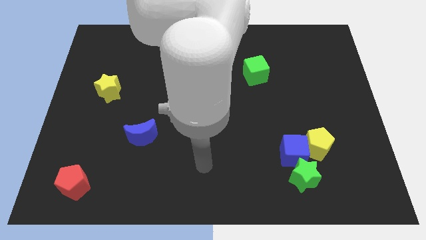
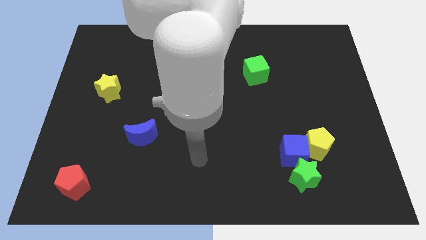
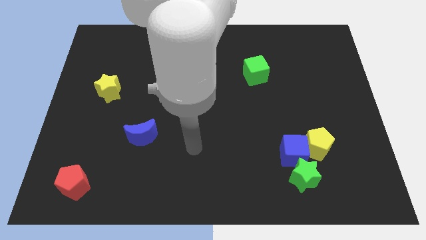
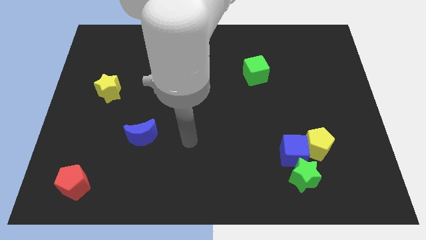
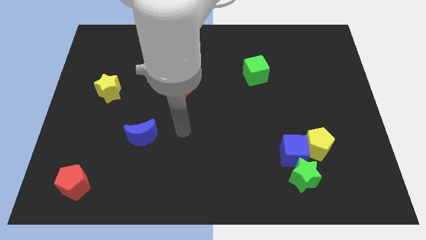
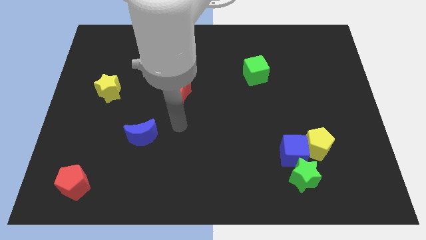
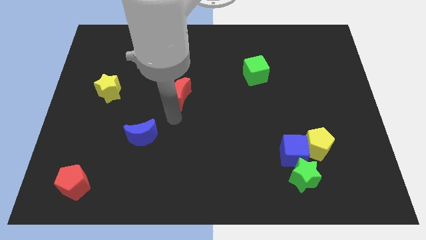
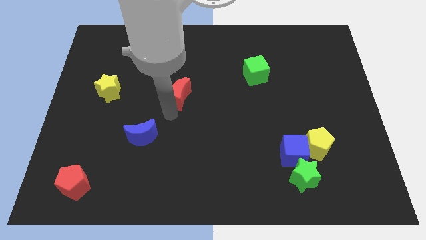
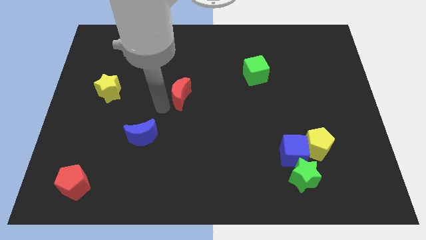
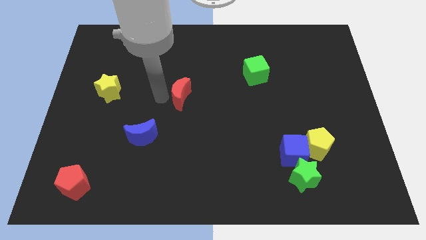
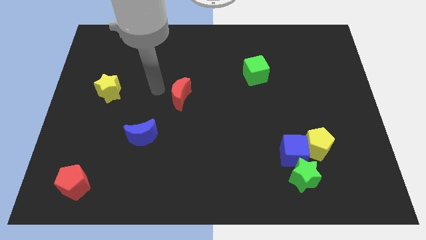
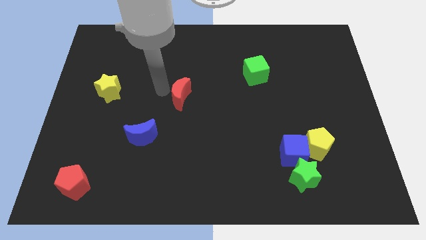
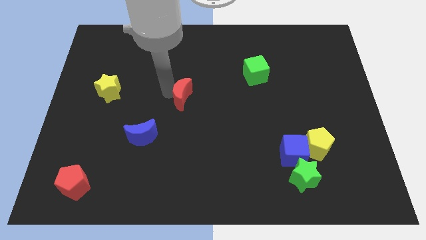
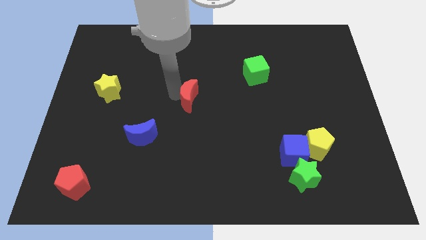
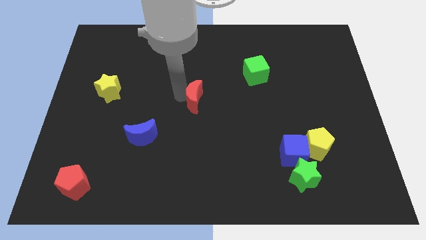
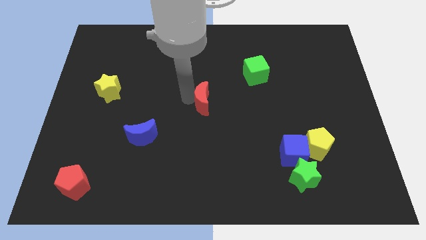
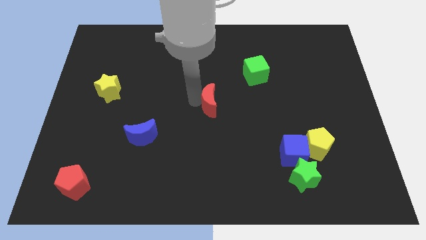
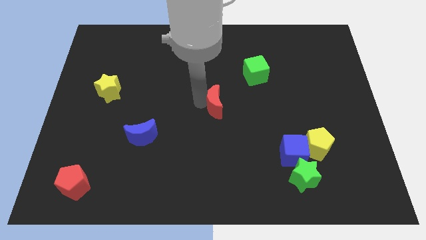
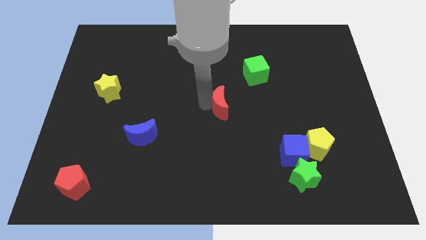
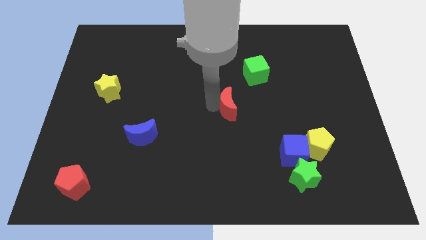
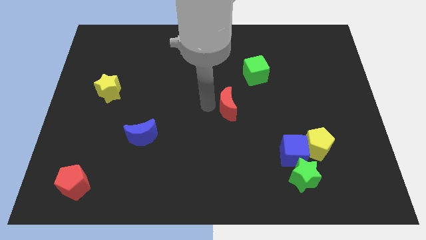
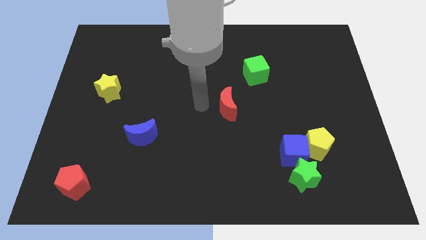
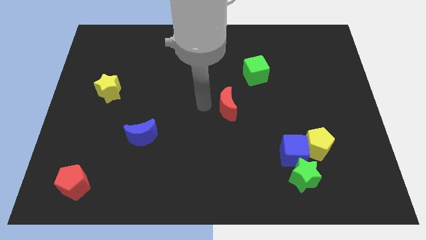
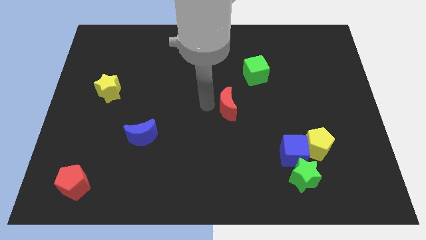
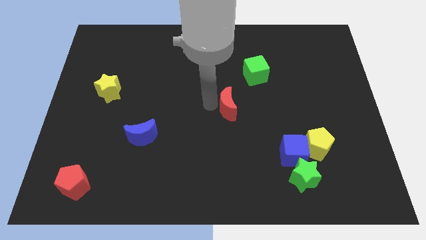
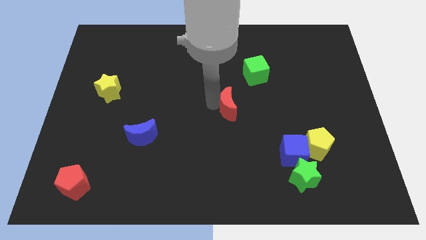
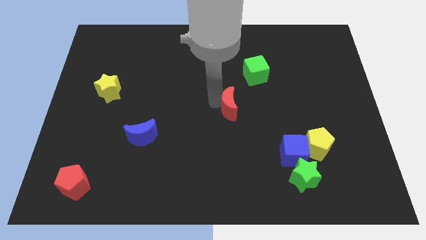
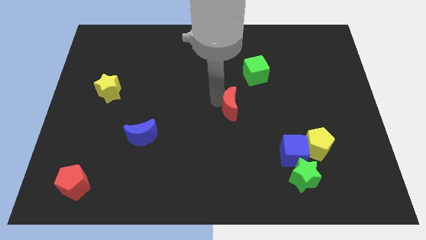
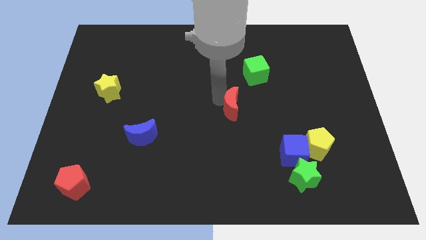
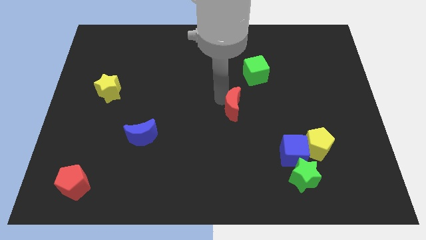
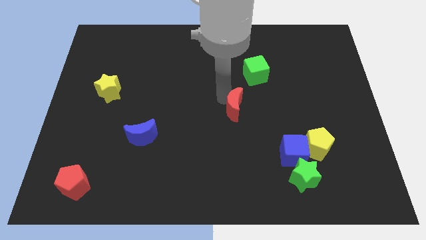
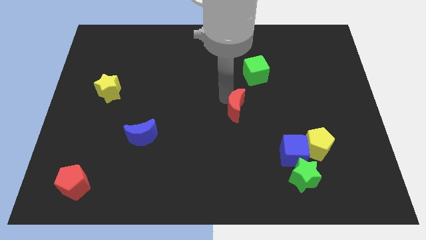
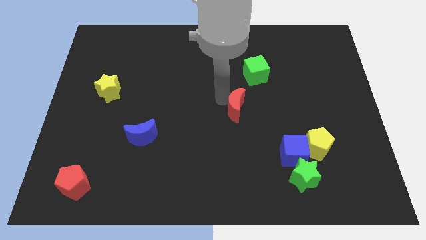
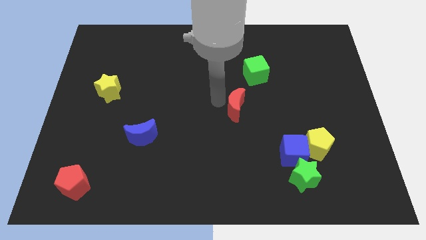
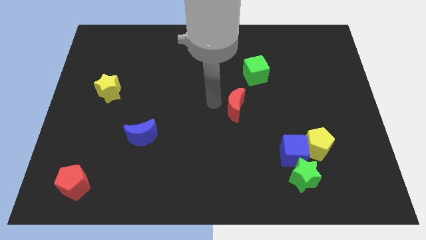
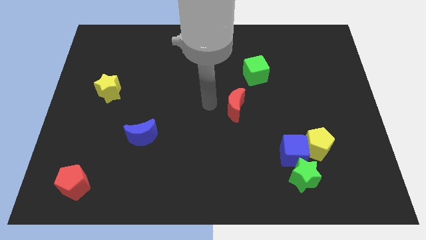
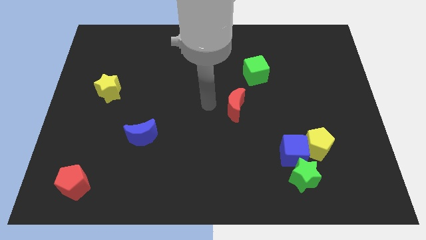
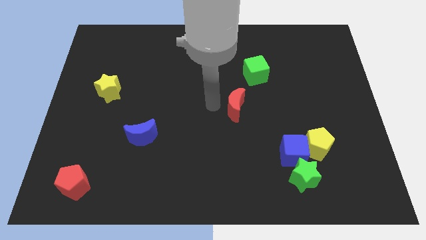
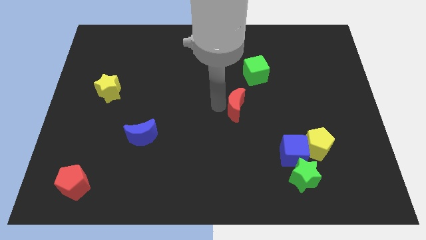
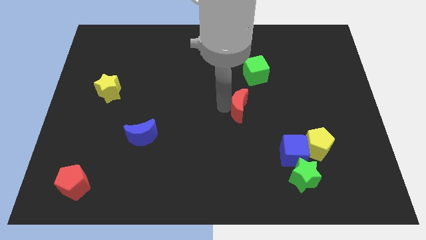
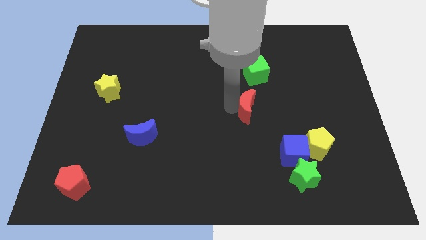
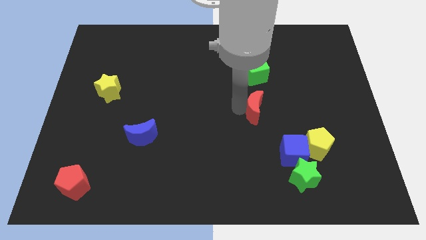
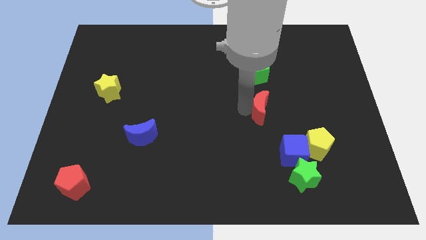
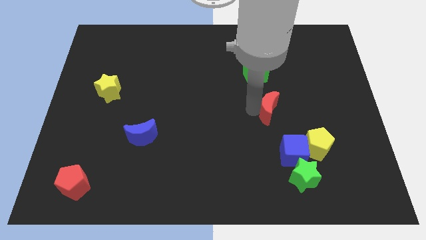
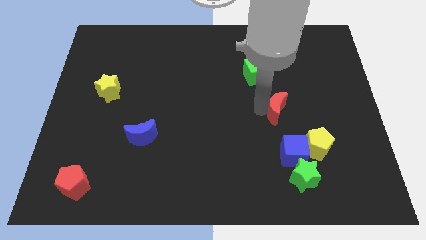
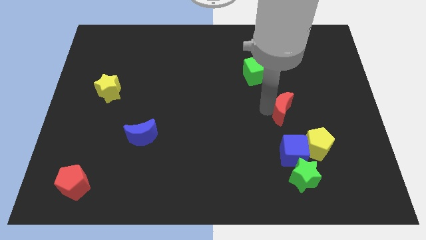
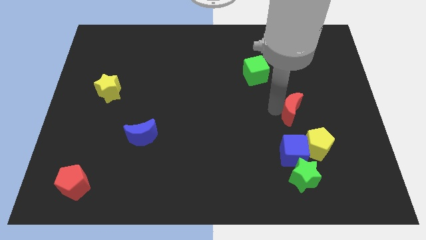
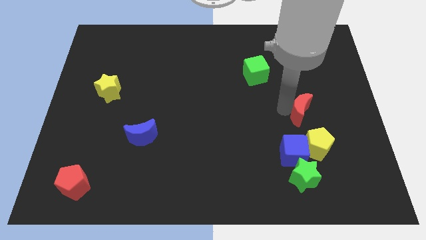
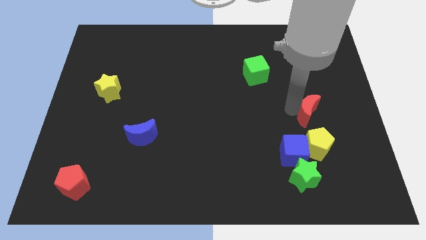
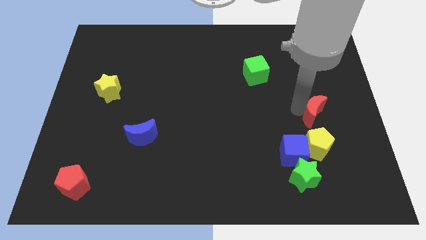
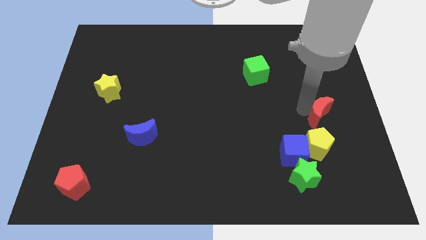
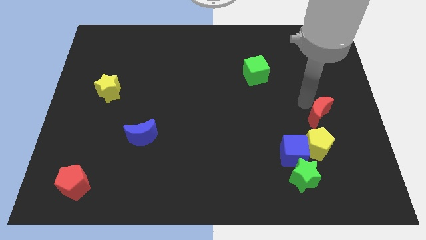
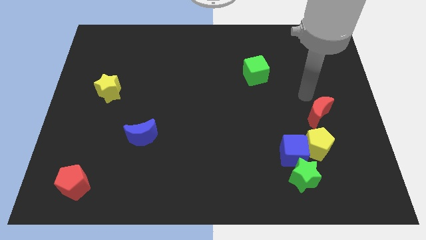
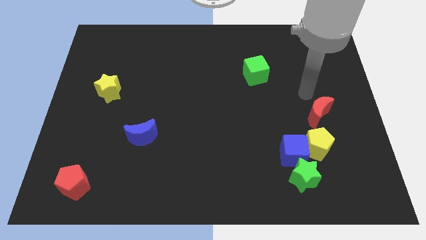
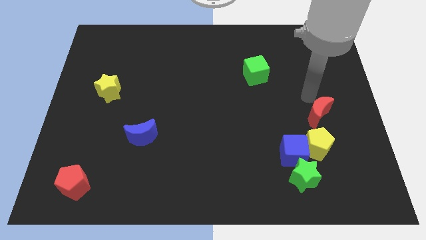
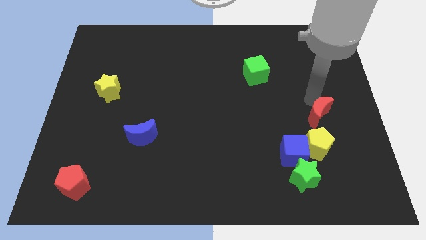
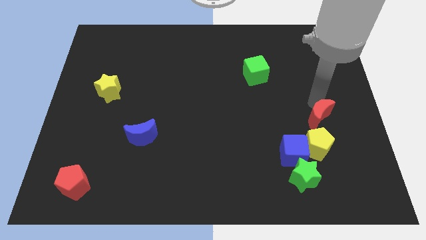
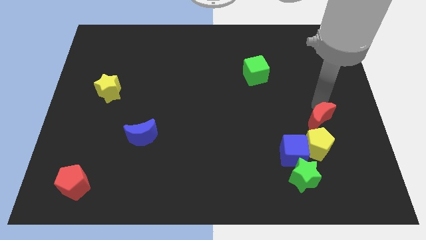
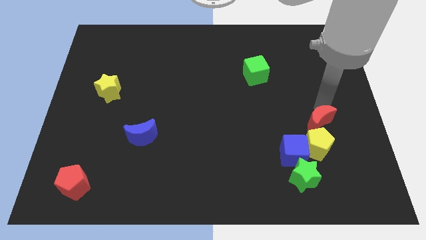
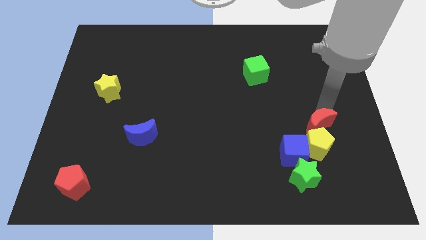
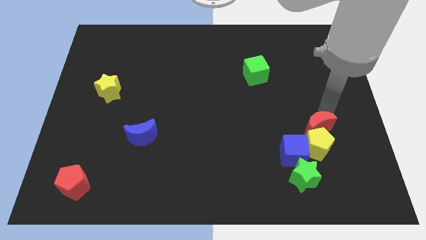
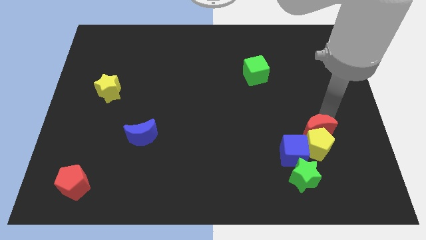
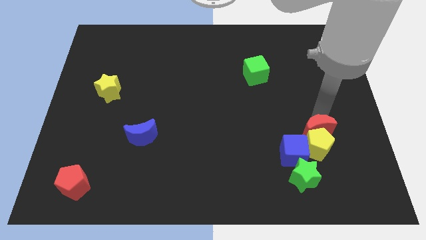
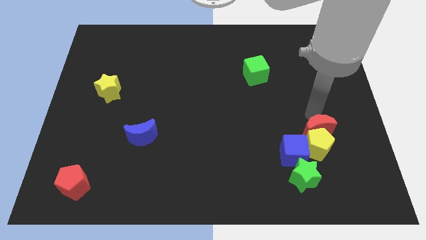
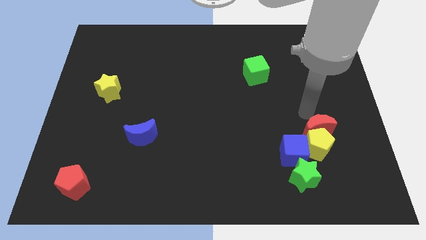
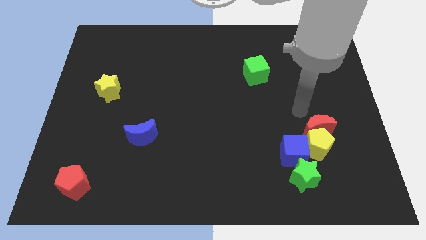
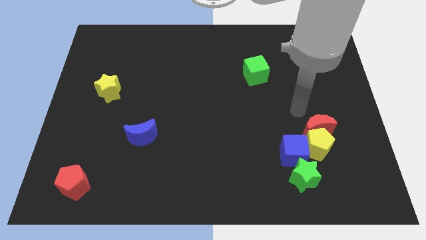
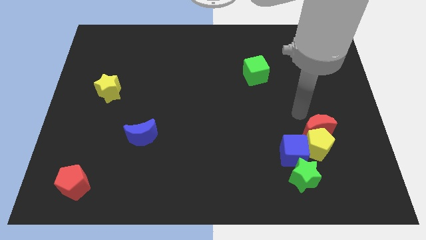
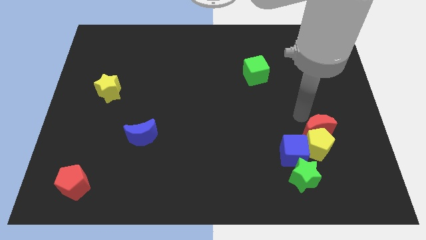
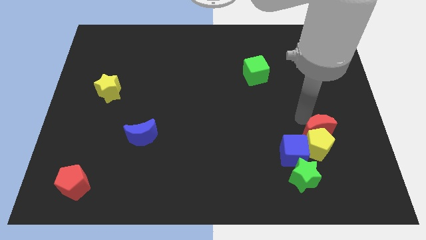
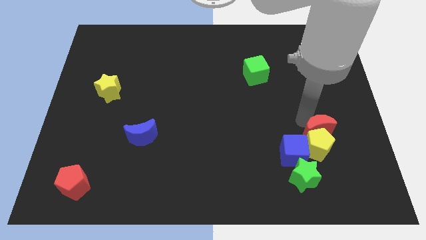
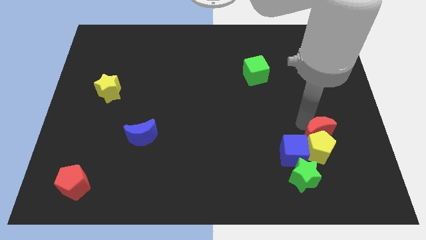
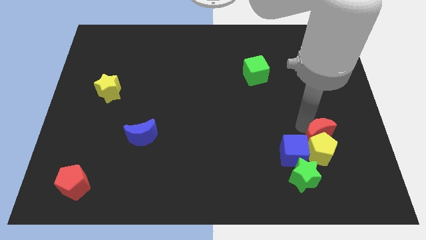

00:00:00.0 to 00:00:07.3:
slide the red moon to the right side of the blue cube

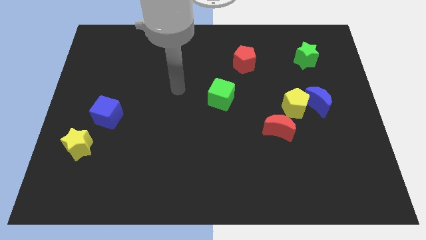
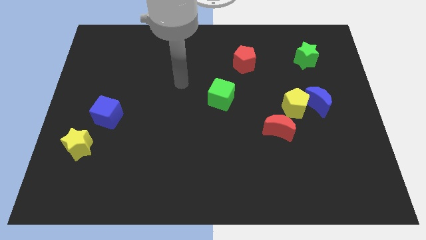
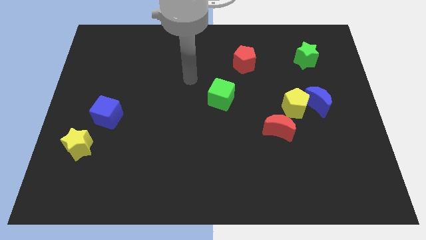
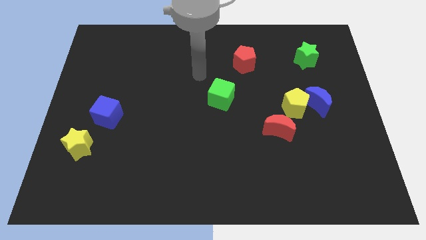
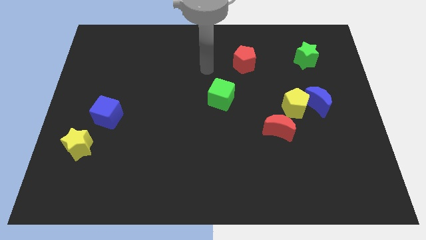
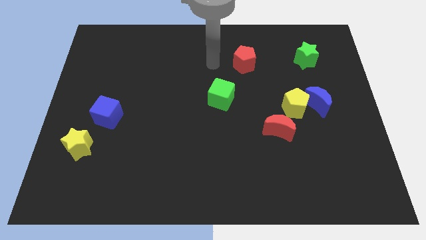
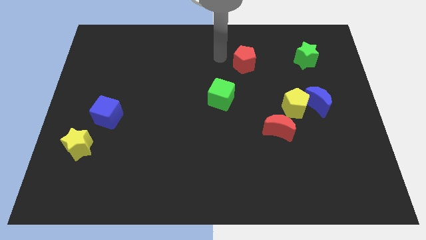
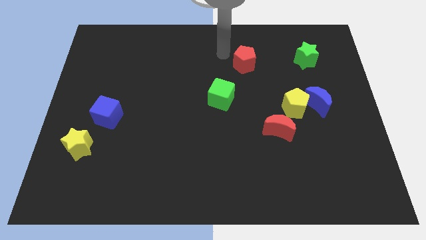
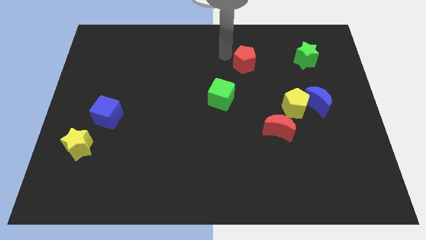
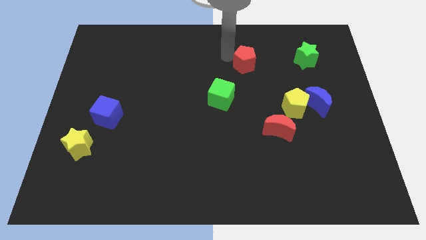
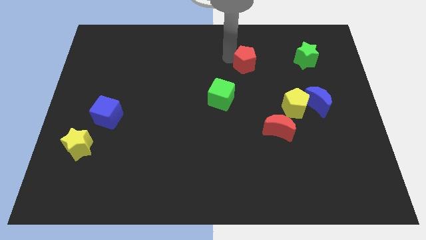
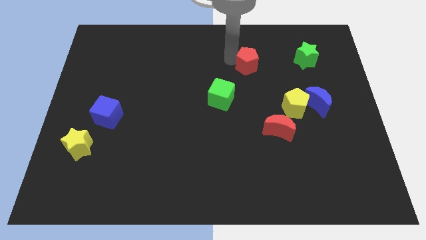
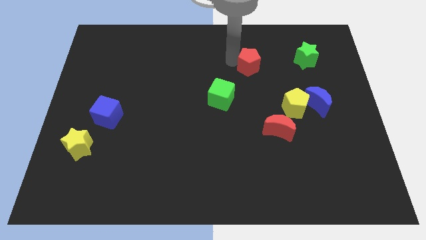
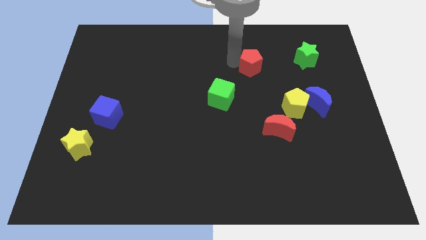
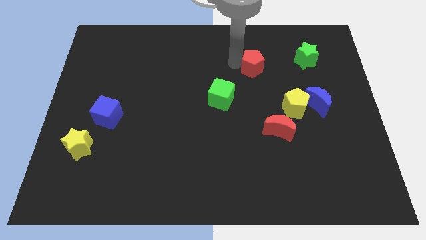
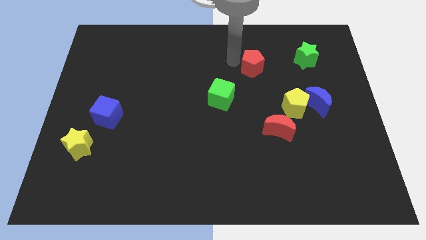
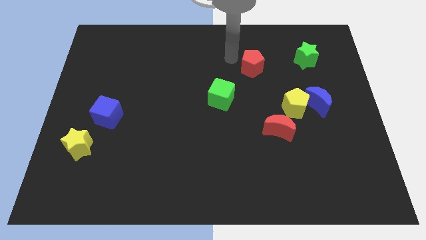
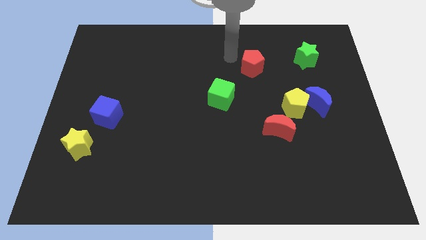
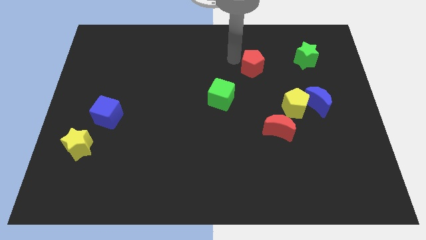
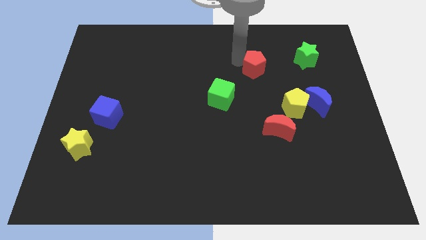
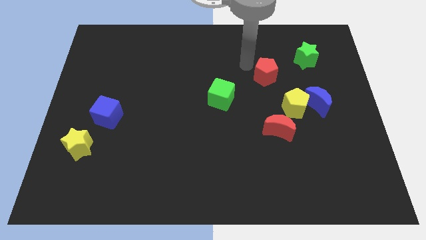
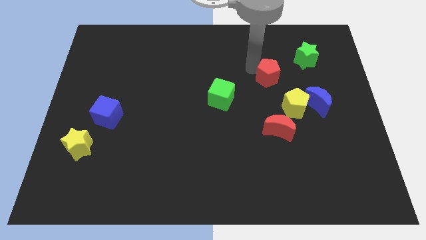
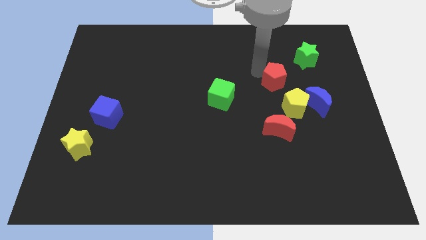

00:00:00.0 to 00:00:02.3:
move the red pentagon to the top left side of the blue moon
